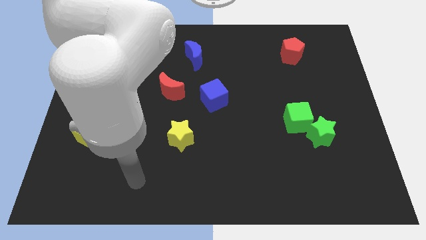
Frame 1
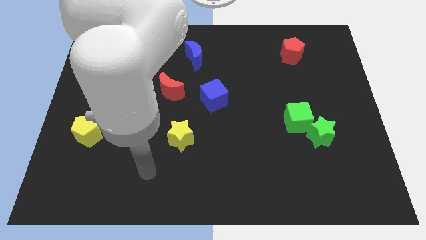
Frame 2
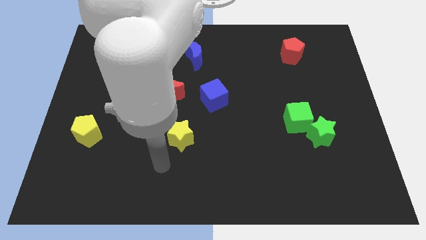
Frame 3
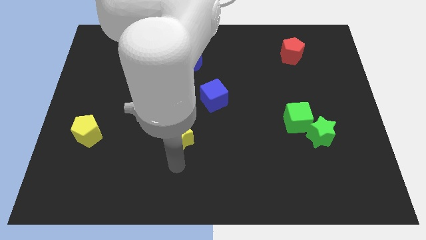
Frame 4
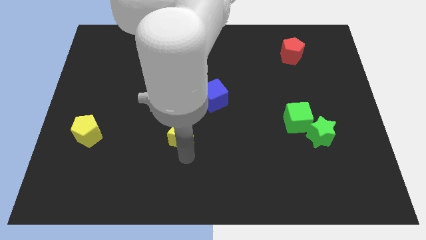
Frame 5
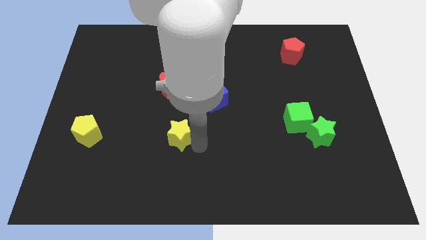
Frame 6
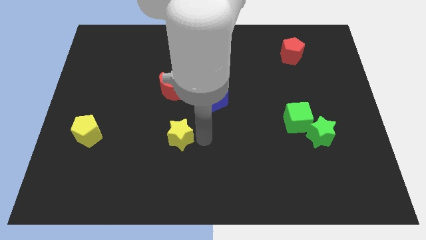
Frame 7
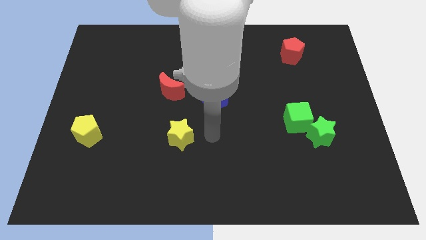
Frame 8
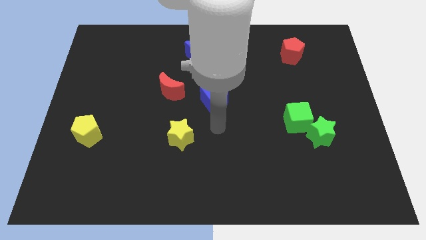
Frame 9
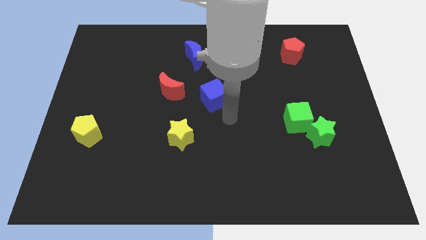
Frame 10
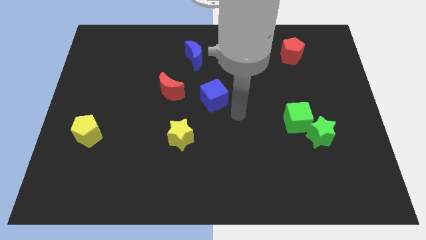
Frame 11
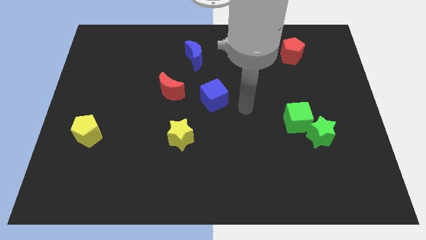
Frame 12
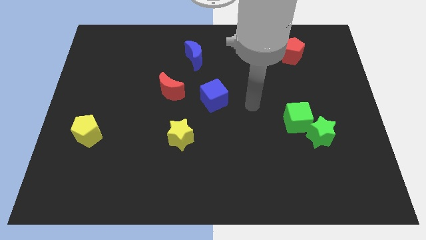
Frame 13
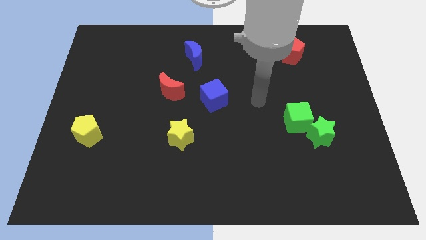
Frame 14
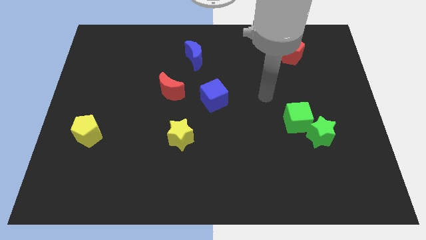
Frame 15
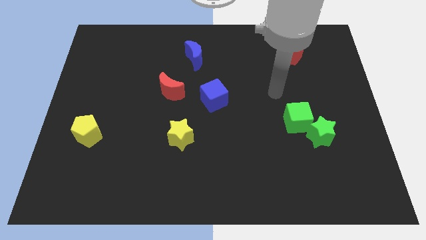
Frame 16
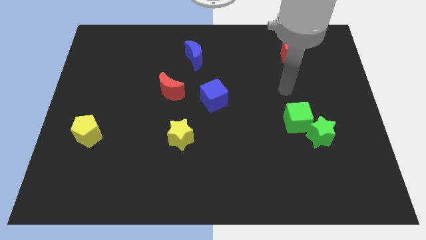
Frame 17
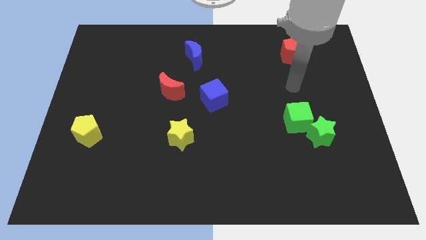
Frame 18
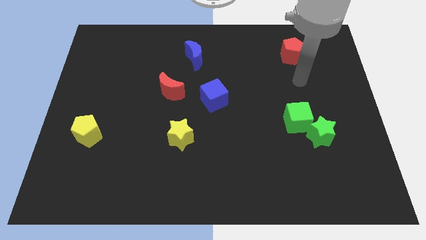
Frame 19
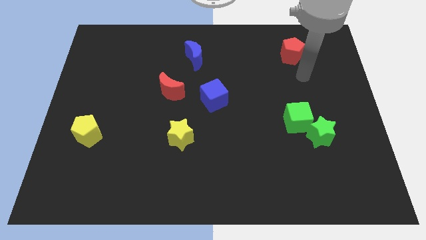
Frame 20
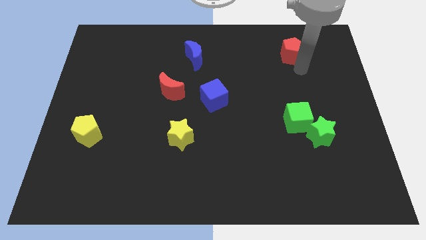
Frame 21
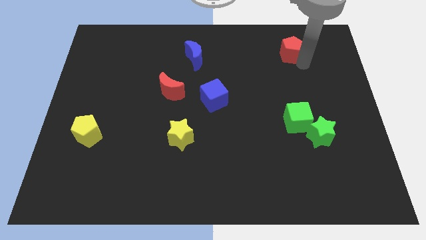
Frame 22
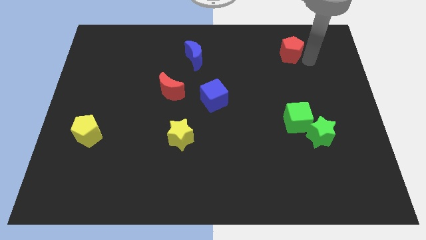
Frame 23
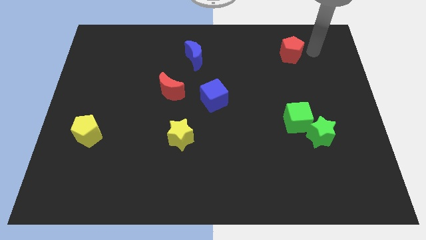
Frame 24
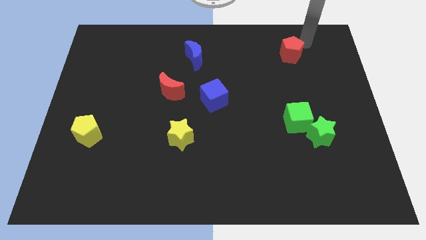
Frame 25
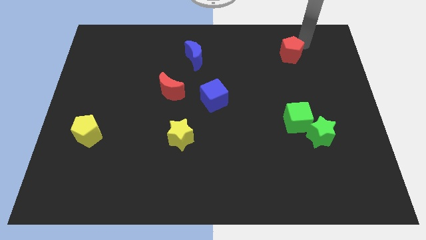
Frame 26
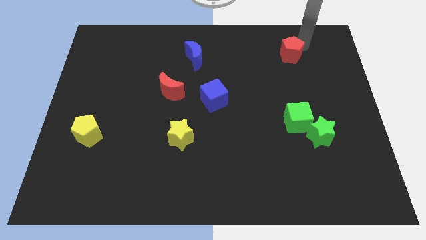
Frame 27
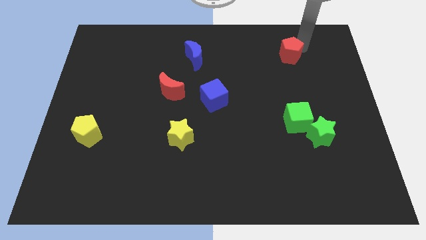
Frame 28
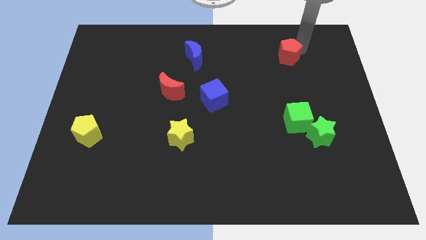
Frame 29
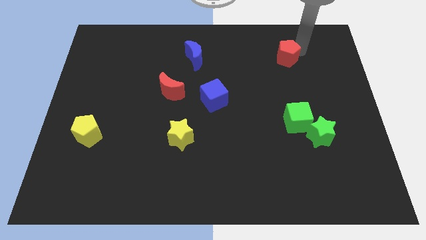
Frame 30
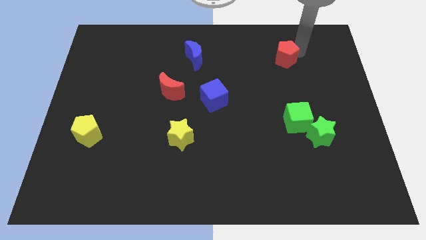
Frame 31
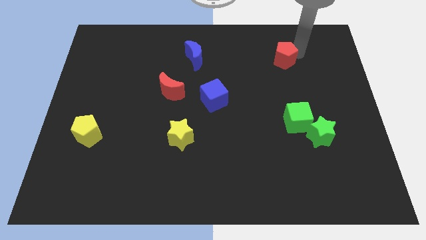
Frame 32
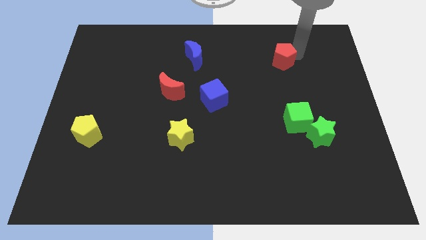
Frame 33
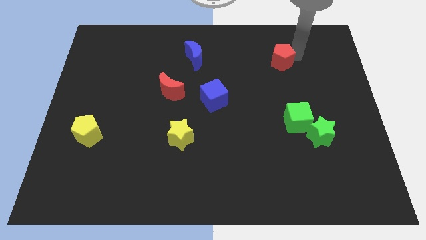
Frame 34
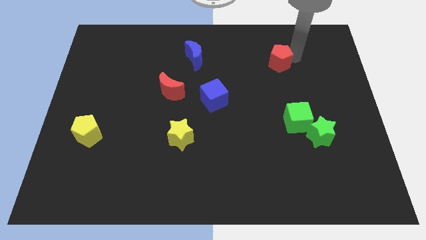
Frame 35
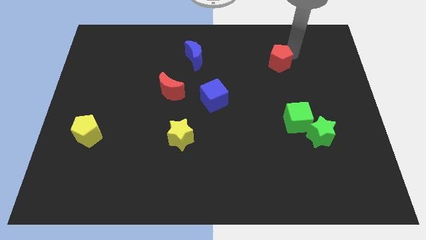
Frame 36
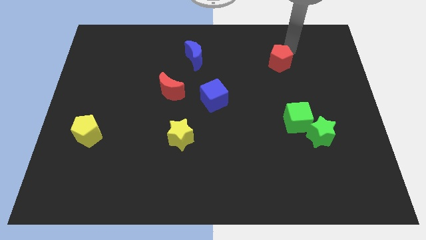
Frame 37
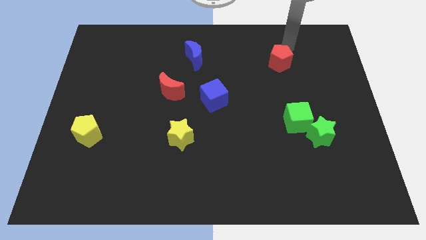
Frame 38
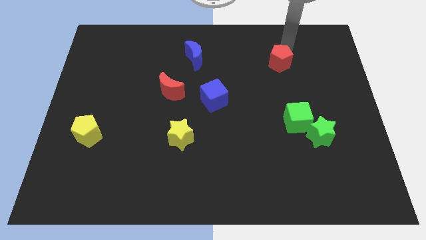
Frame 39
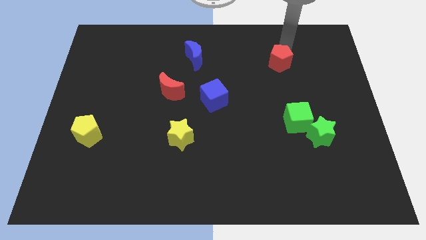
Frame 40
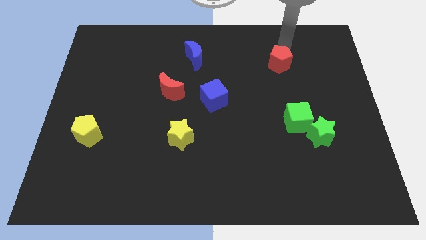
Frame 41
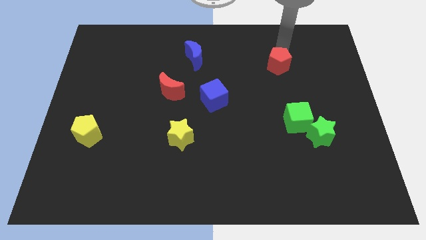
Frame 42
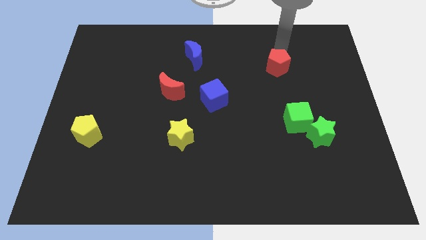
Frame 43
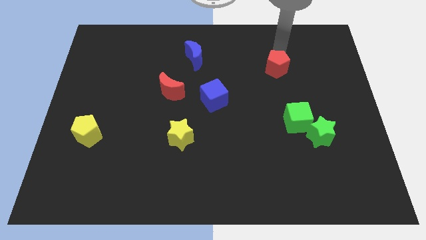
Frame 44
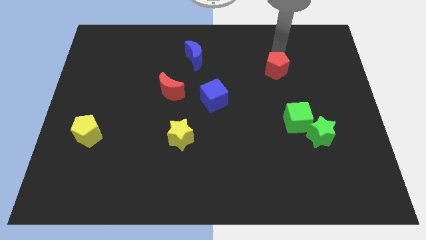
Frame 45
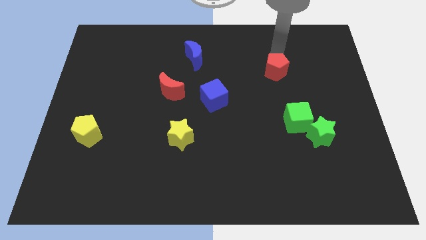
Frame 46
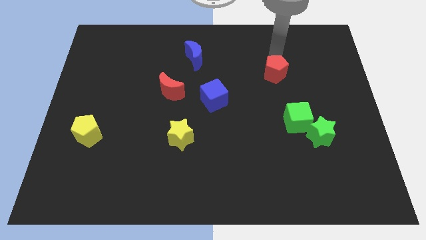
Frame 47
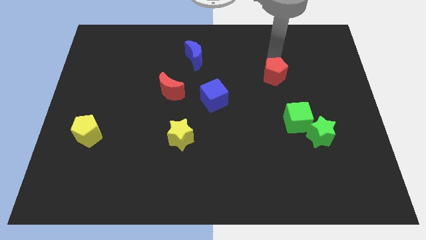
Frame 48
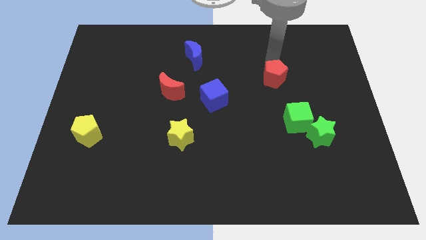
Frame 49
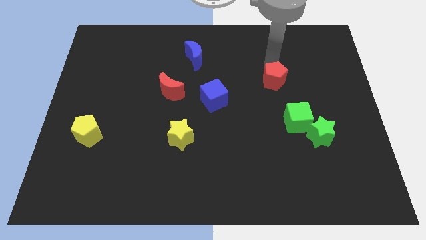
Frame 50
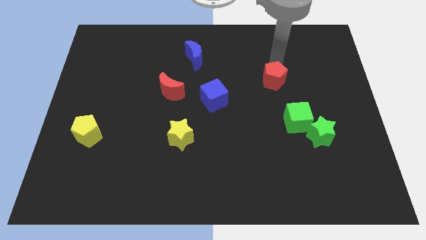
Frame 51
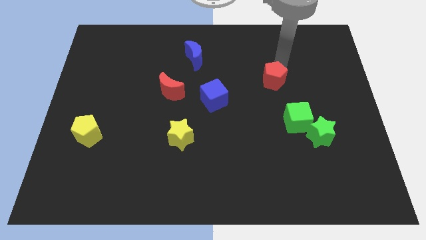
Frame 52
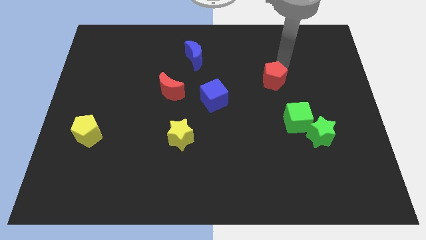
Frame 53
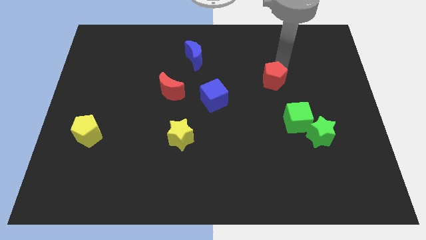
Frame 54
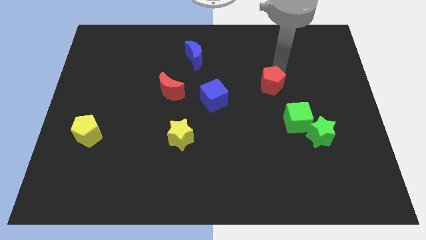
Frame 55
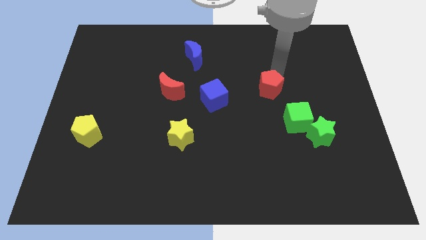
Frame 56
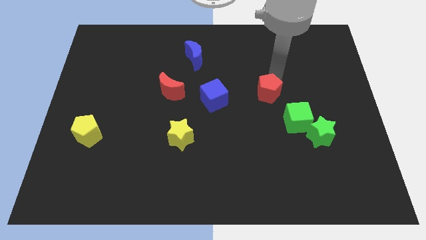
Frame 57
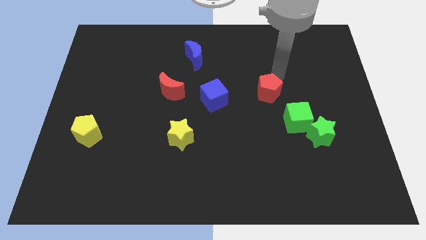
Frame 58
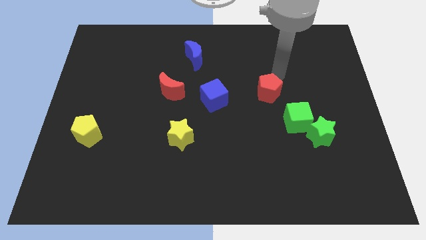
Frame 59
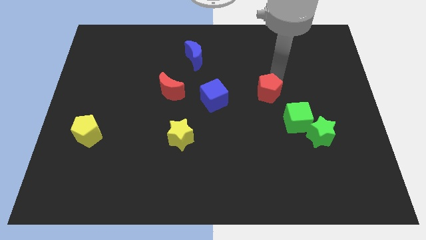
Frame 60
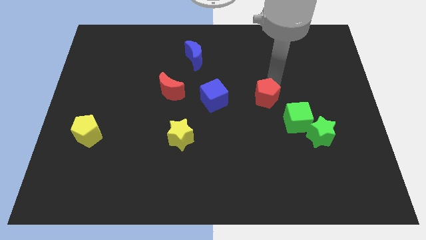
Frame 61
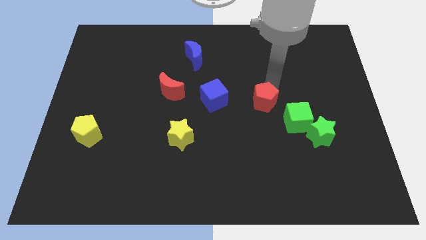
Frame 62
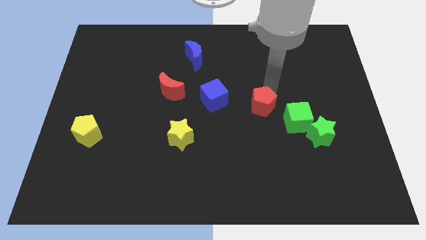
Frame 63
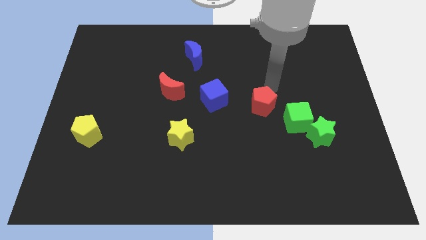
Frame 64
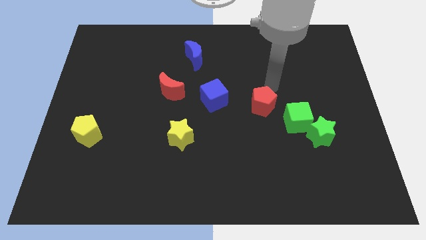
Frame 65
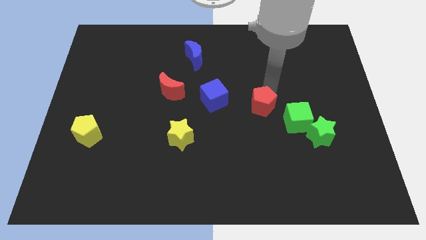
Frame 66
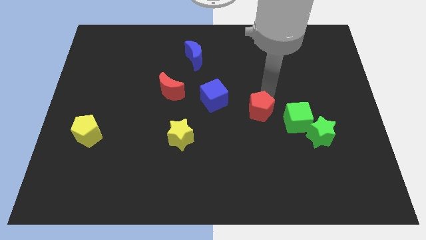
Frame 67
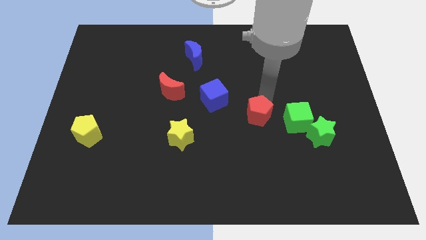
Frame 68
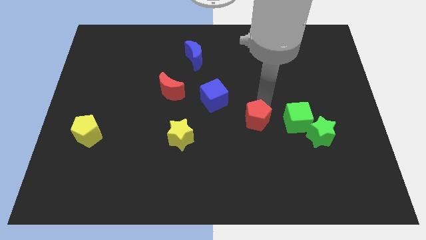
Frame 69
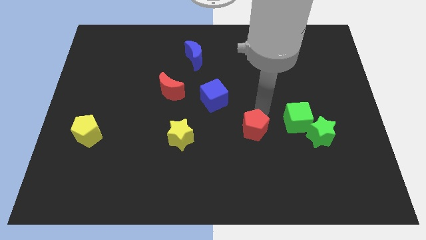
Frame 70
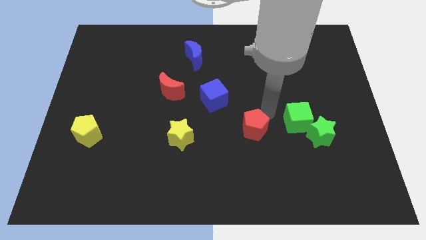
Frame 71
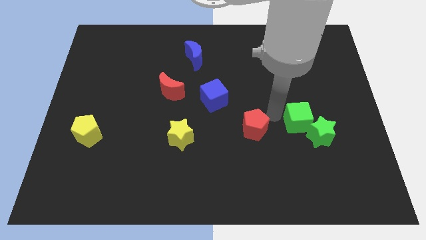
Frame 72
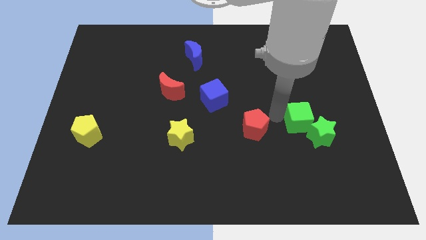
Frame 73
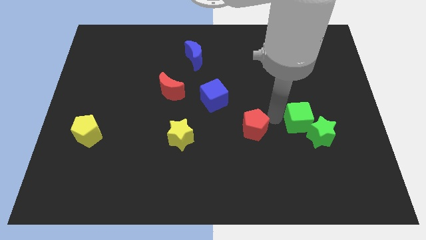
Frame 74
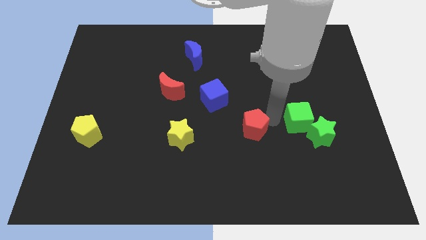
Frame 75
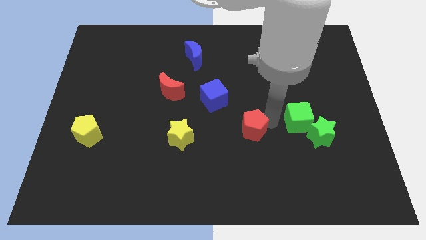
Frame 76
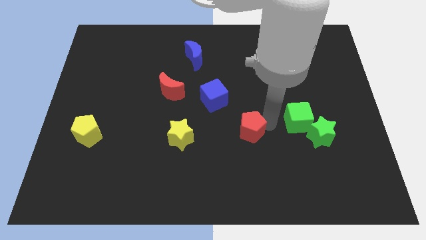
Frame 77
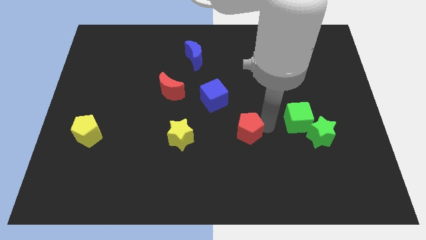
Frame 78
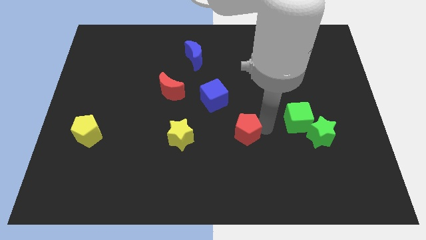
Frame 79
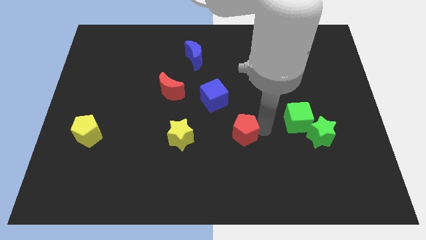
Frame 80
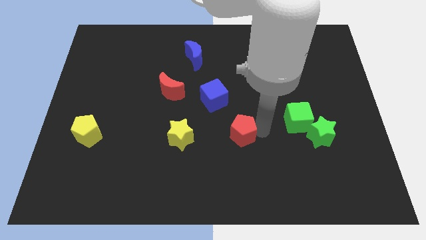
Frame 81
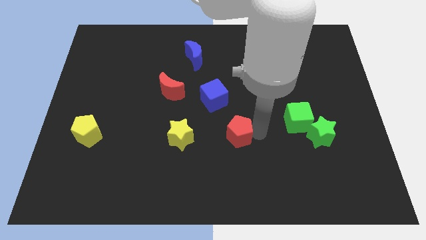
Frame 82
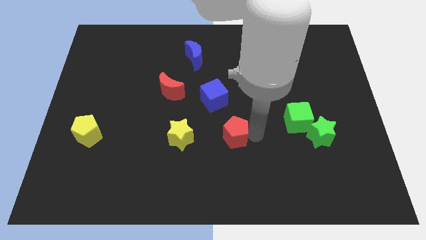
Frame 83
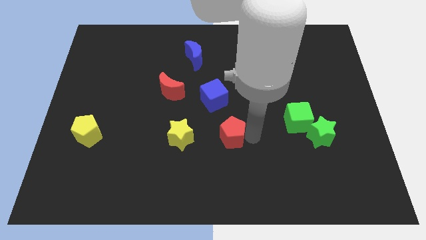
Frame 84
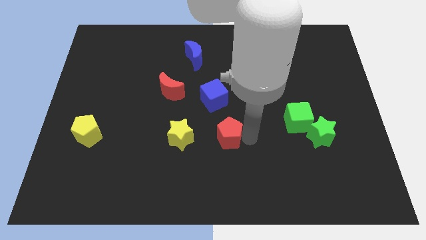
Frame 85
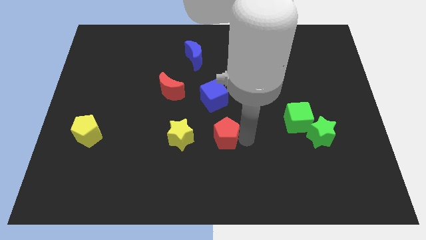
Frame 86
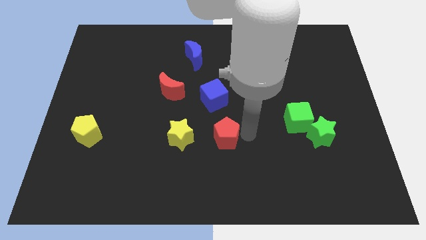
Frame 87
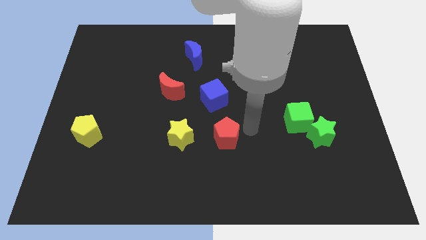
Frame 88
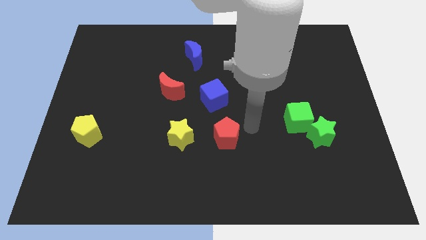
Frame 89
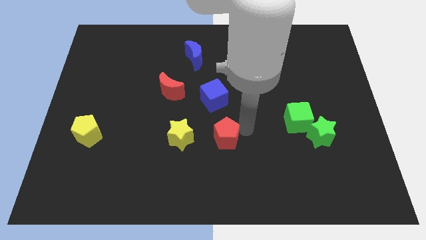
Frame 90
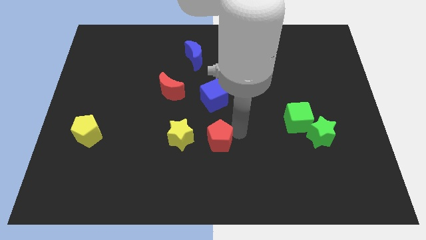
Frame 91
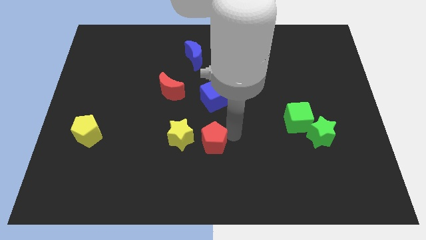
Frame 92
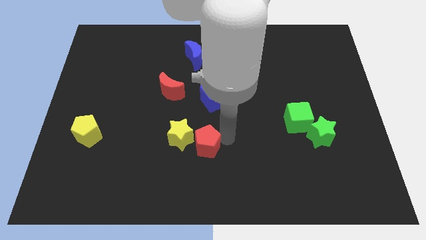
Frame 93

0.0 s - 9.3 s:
put the red pentagon close to the yellow star
